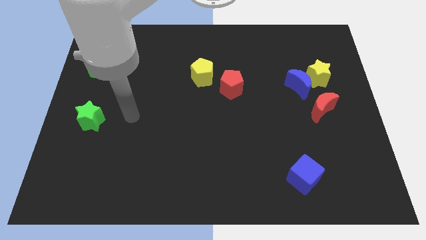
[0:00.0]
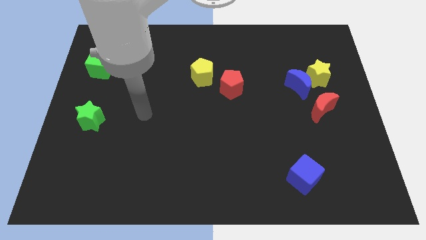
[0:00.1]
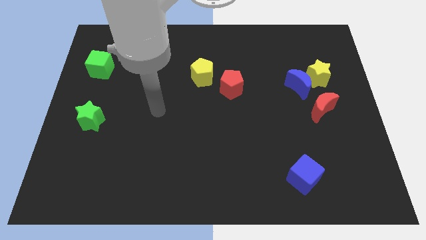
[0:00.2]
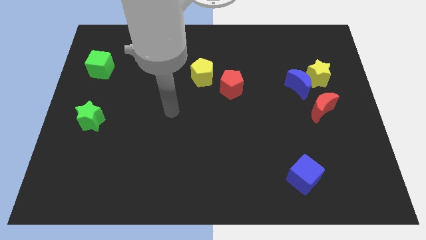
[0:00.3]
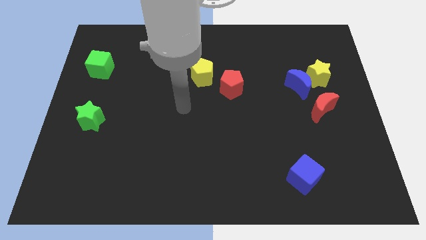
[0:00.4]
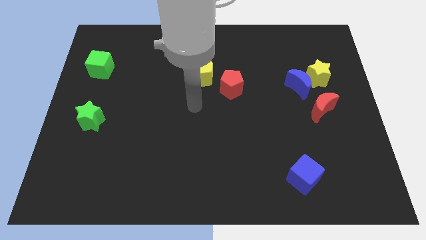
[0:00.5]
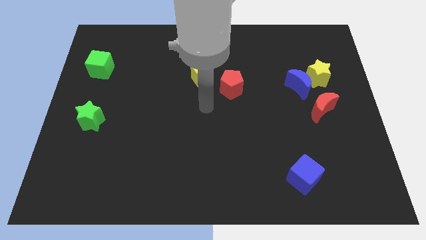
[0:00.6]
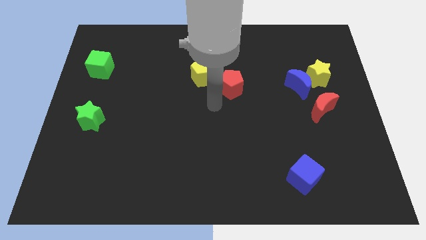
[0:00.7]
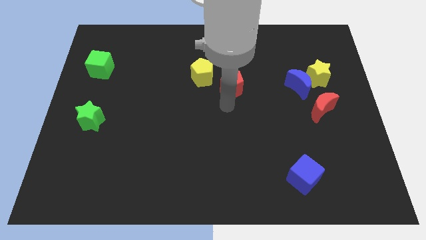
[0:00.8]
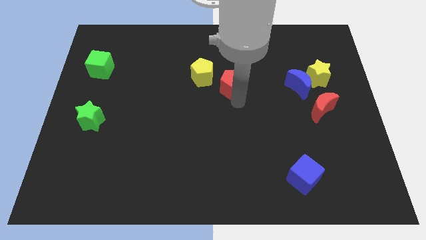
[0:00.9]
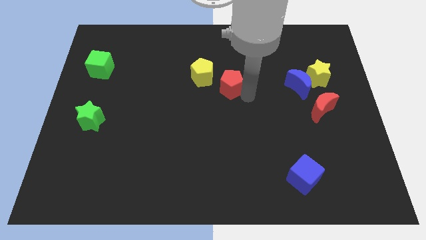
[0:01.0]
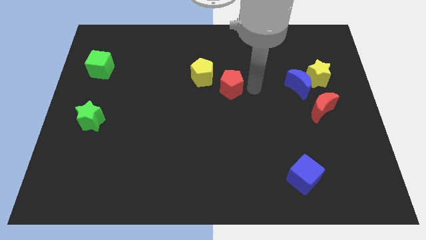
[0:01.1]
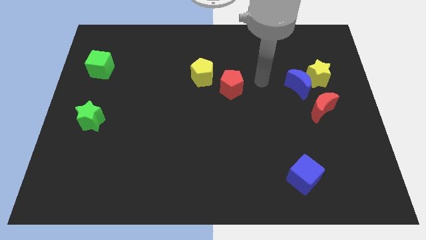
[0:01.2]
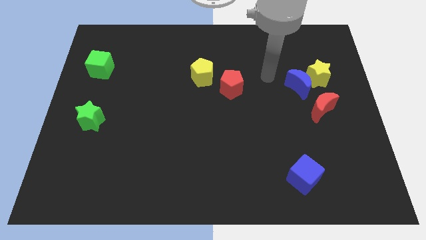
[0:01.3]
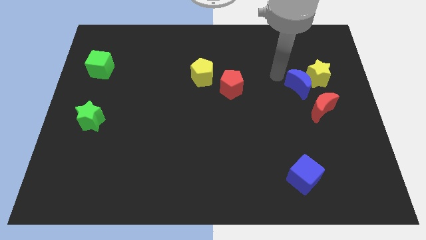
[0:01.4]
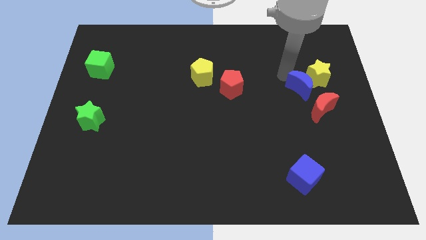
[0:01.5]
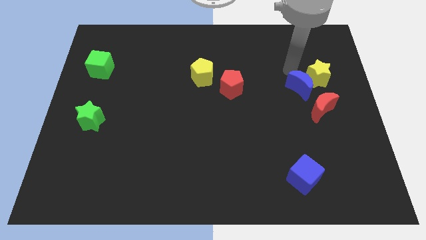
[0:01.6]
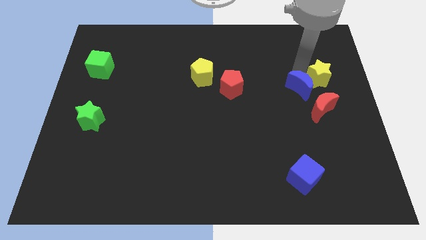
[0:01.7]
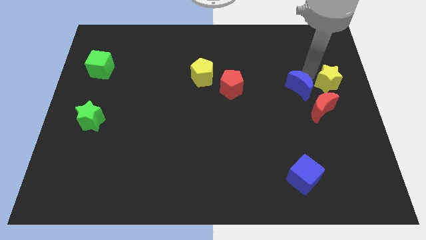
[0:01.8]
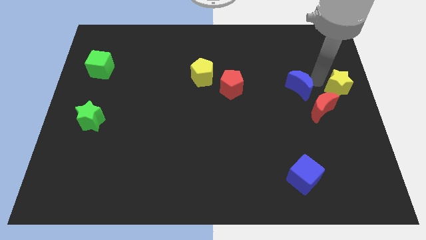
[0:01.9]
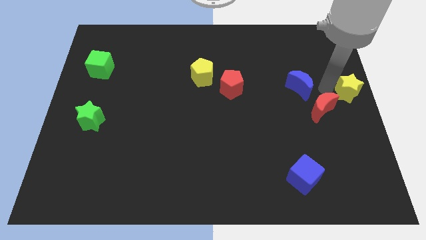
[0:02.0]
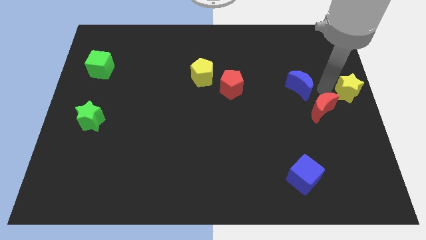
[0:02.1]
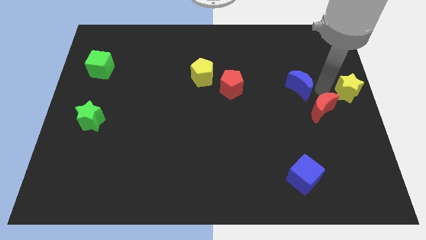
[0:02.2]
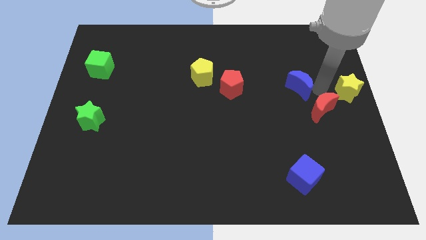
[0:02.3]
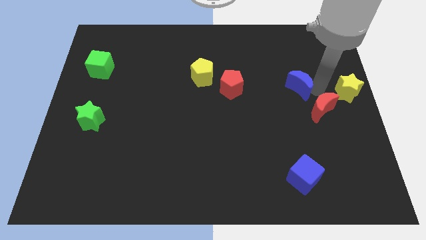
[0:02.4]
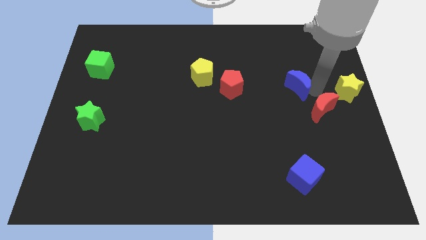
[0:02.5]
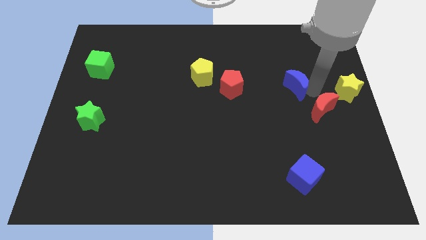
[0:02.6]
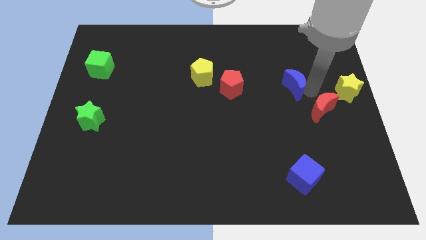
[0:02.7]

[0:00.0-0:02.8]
separate the blue moon from the yellow star and red moon

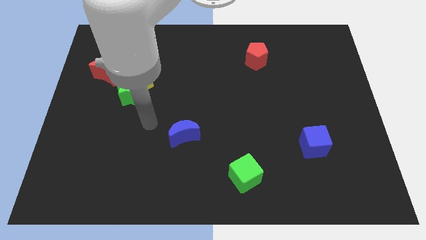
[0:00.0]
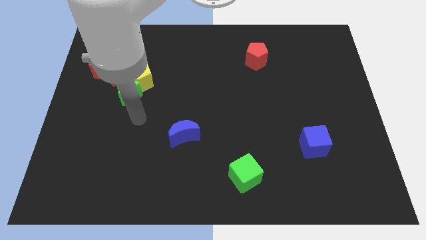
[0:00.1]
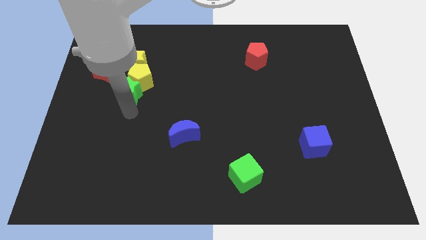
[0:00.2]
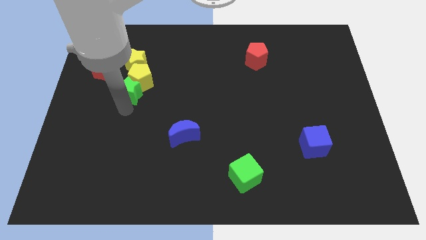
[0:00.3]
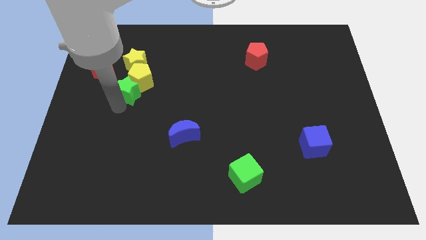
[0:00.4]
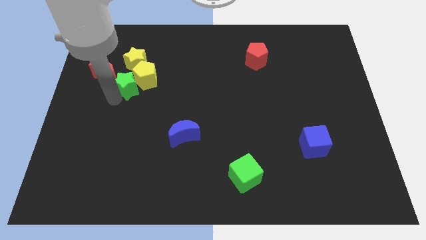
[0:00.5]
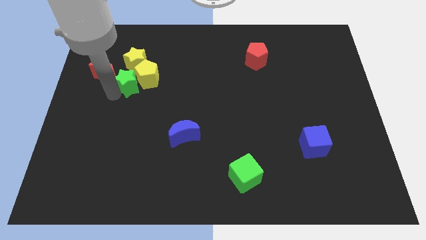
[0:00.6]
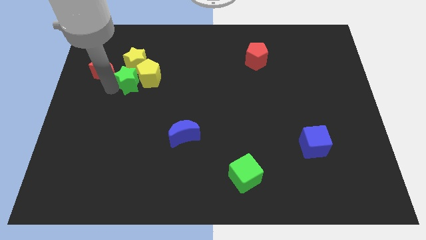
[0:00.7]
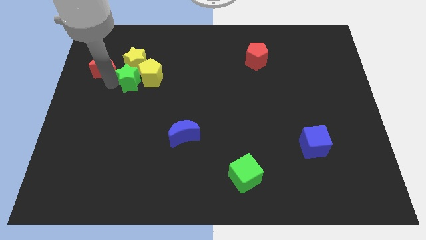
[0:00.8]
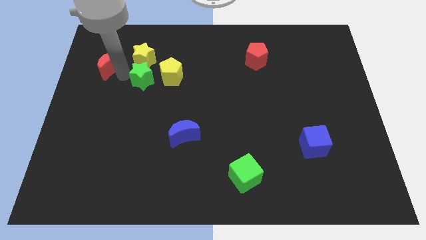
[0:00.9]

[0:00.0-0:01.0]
separate the yellow pentagon from the green star, yellow star, and red moon

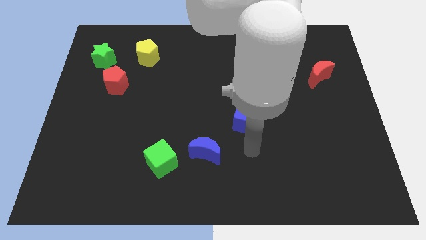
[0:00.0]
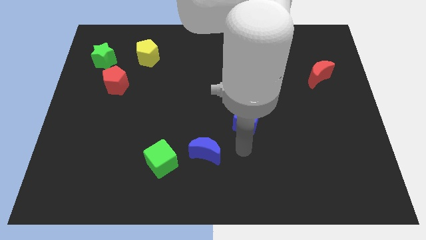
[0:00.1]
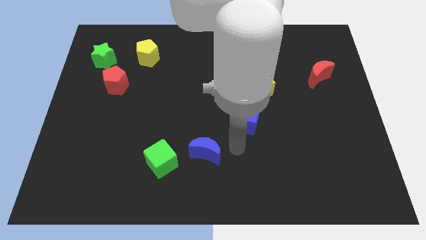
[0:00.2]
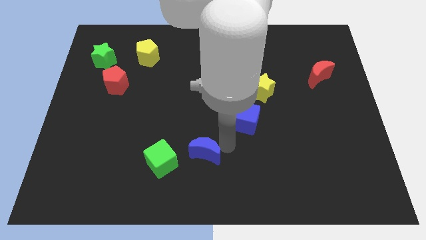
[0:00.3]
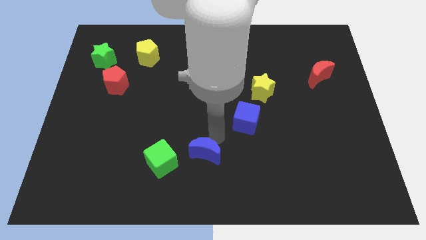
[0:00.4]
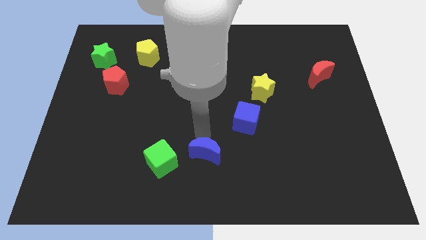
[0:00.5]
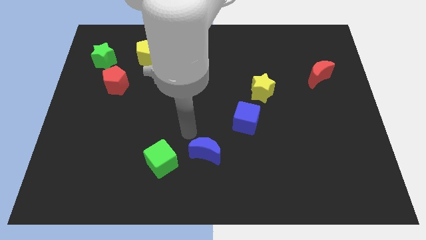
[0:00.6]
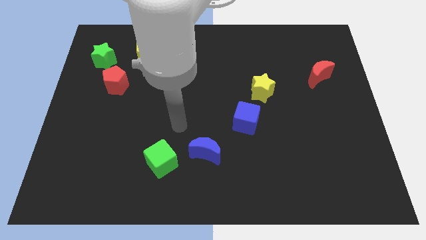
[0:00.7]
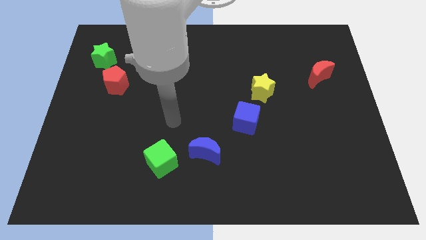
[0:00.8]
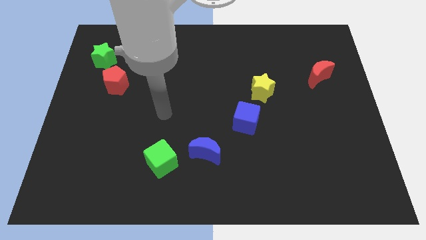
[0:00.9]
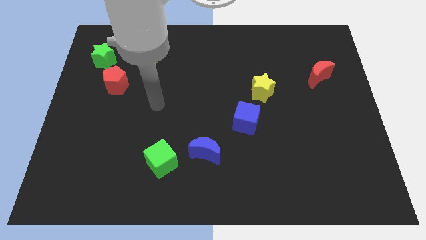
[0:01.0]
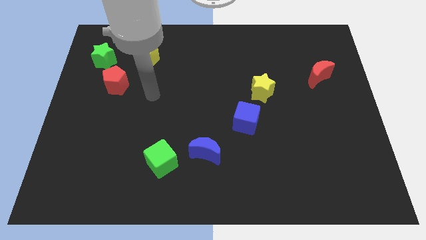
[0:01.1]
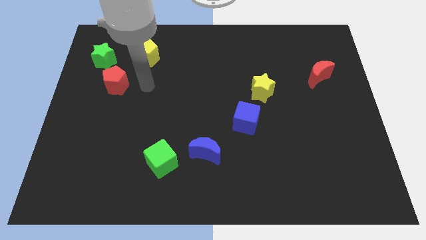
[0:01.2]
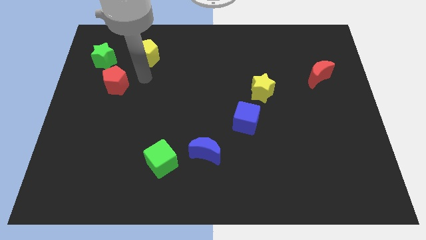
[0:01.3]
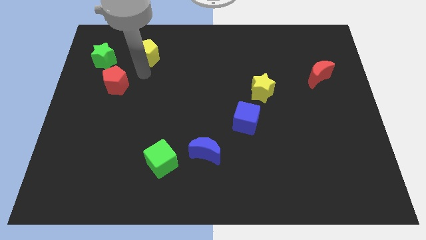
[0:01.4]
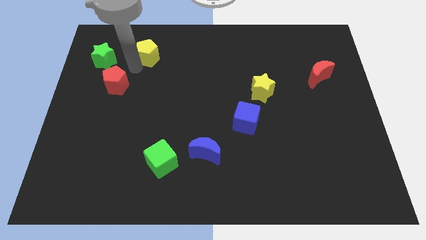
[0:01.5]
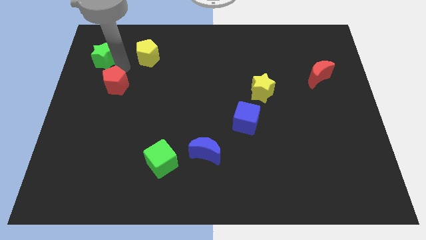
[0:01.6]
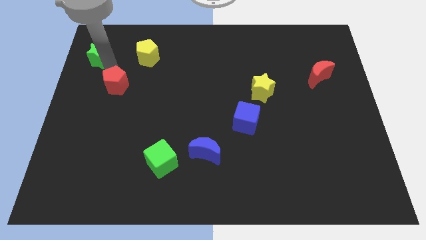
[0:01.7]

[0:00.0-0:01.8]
move the red pentagon away from the green star

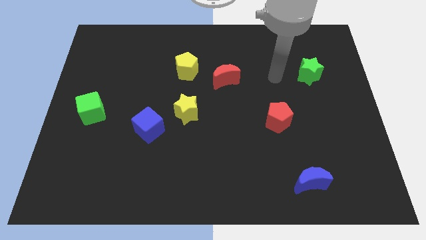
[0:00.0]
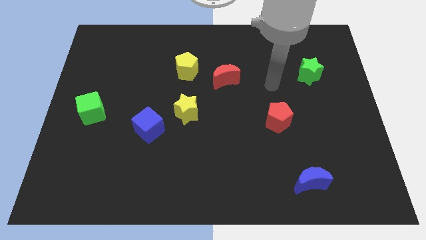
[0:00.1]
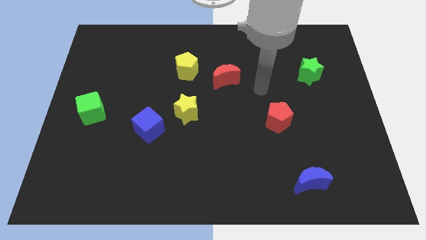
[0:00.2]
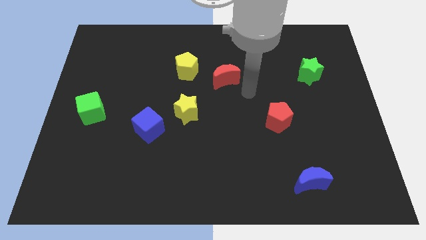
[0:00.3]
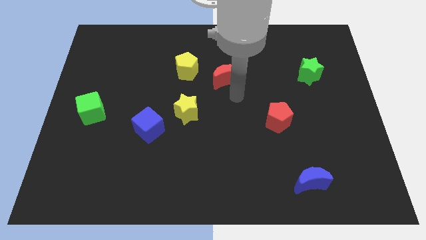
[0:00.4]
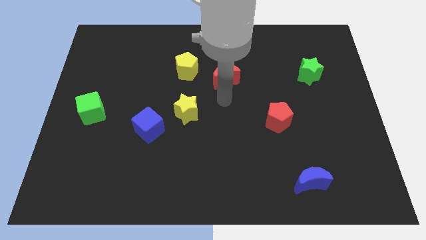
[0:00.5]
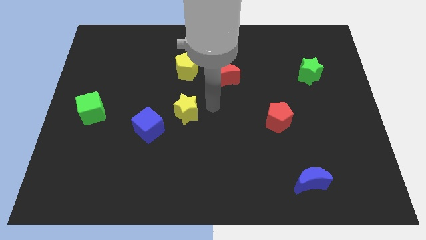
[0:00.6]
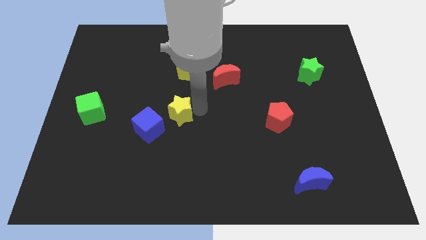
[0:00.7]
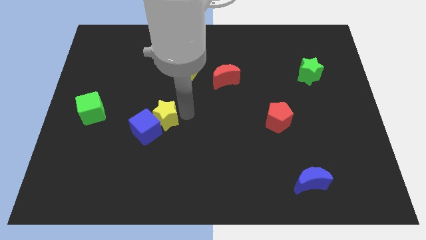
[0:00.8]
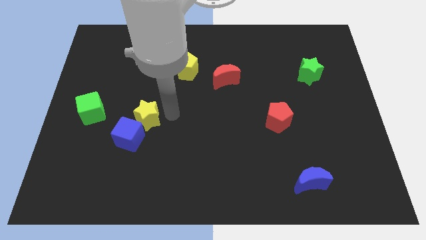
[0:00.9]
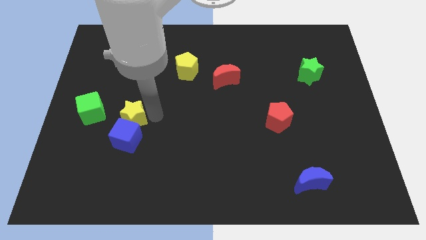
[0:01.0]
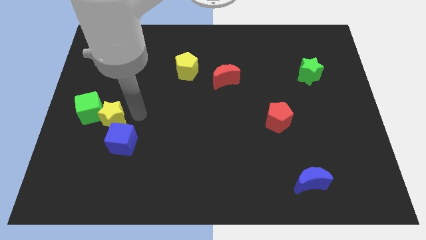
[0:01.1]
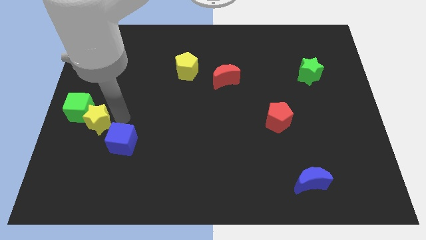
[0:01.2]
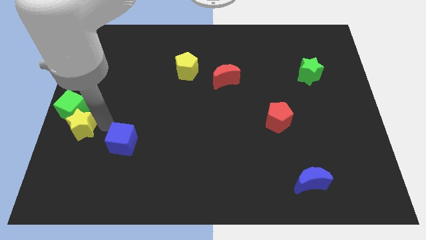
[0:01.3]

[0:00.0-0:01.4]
move the blue cube away from the yellow star

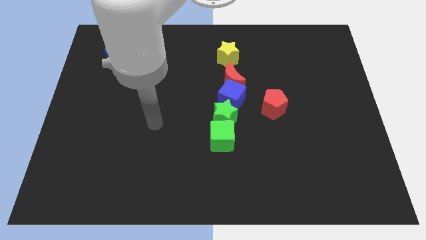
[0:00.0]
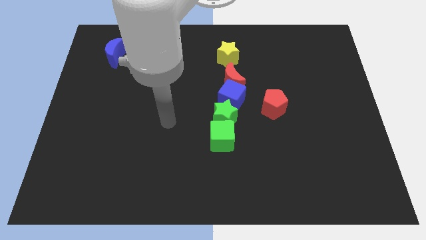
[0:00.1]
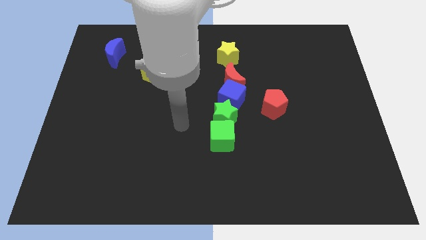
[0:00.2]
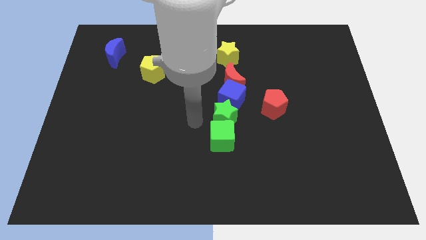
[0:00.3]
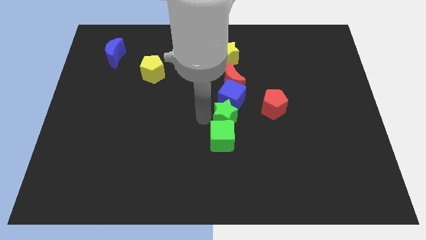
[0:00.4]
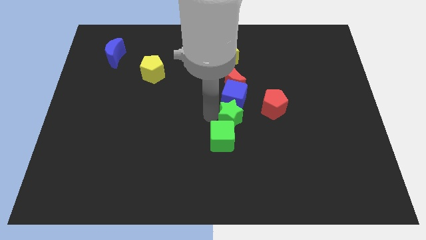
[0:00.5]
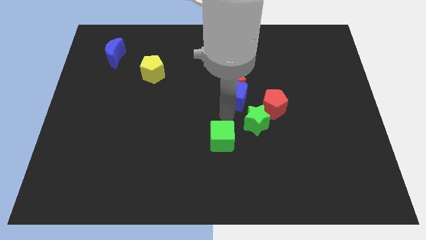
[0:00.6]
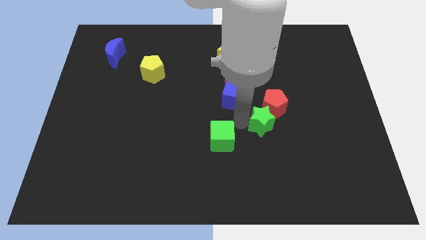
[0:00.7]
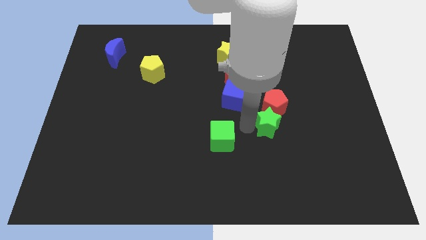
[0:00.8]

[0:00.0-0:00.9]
pull the green cube apart from the green star

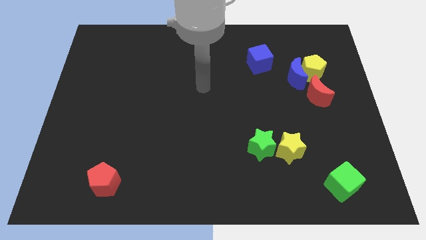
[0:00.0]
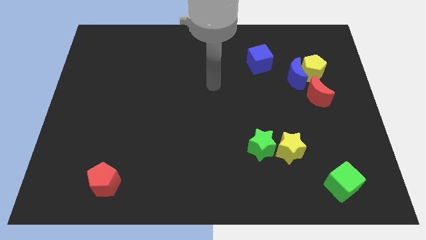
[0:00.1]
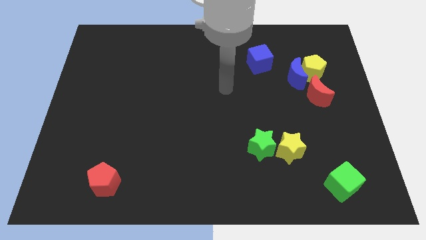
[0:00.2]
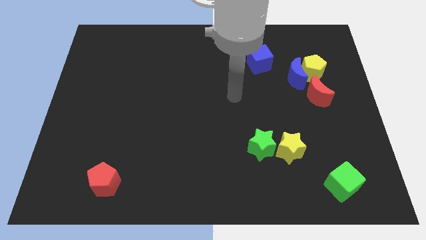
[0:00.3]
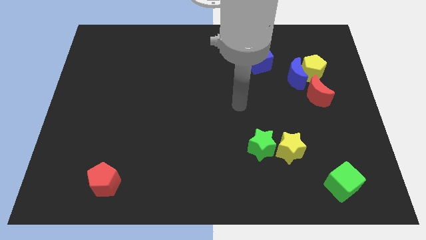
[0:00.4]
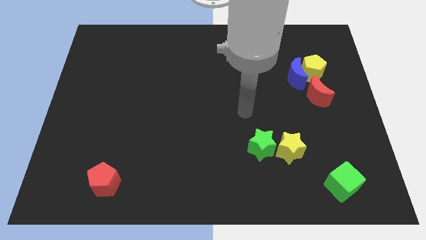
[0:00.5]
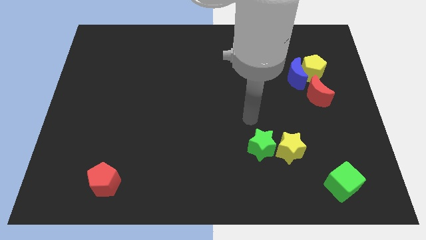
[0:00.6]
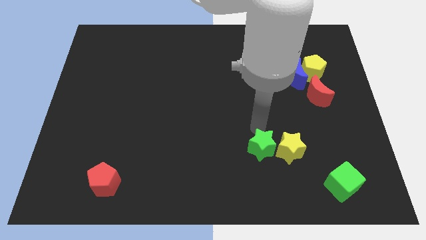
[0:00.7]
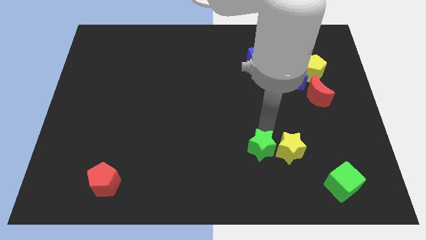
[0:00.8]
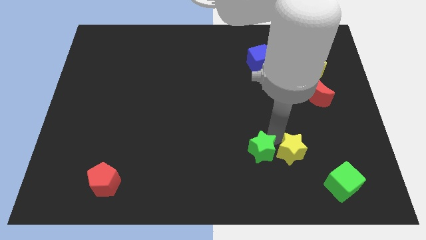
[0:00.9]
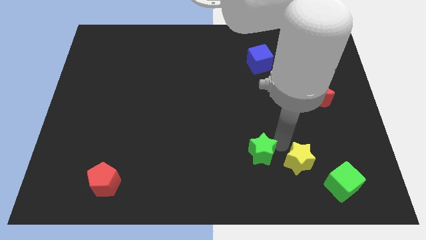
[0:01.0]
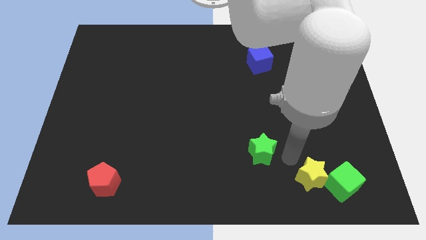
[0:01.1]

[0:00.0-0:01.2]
pull the green star apart from the yellow star

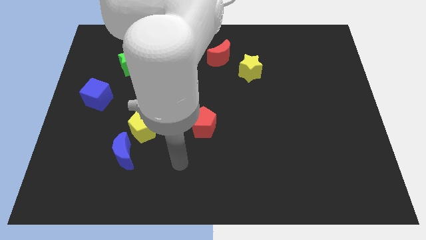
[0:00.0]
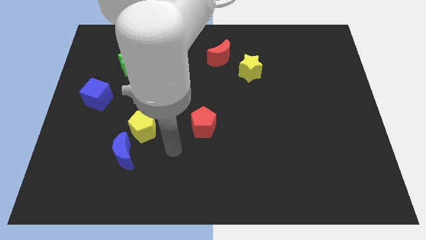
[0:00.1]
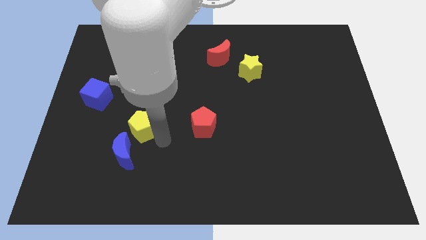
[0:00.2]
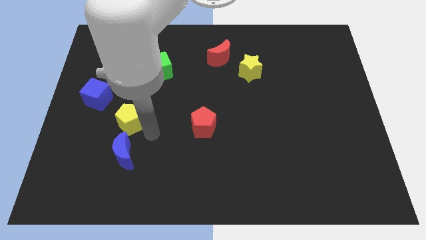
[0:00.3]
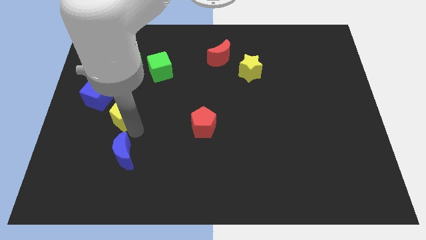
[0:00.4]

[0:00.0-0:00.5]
separate the blue moon from the yellow pentagon
